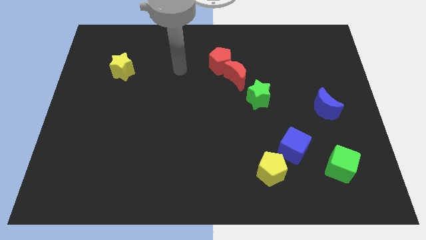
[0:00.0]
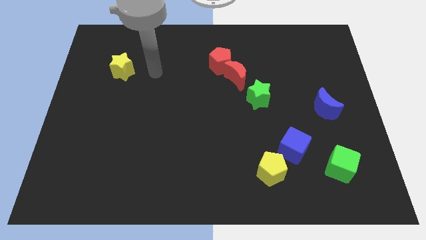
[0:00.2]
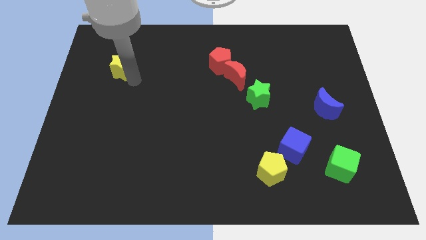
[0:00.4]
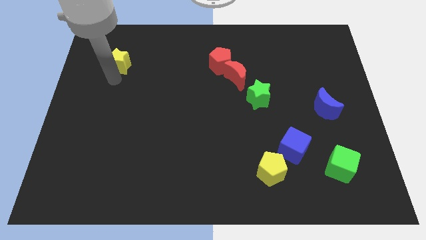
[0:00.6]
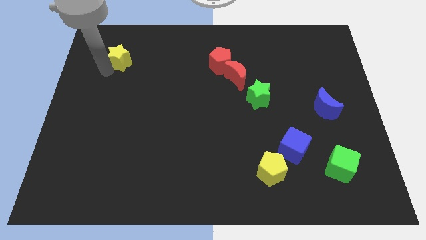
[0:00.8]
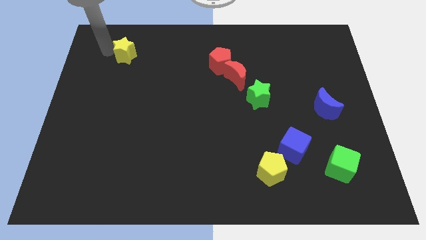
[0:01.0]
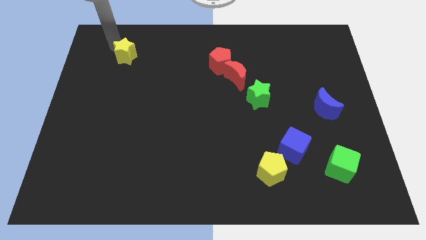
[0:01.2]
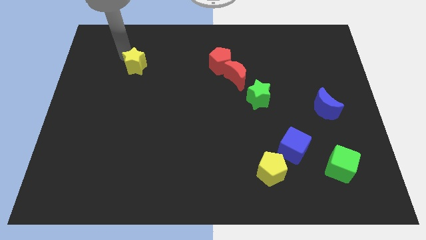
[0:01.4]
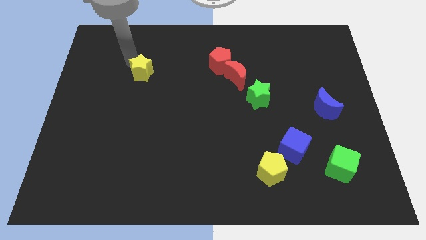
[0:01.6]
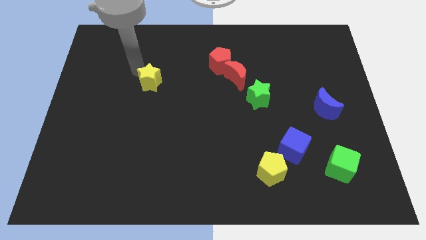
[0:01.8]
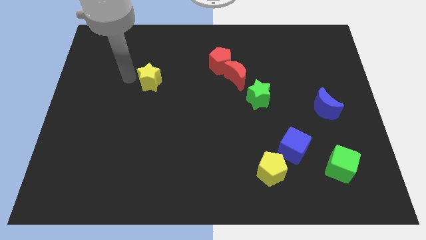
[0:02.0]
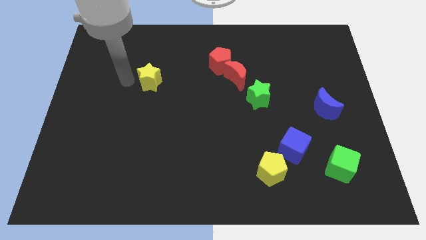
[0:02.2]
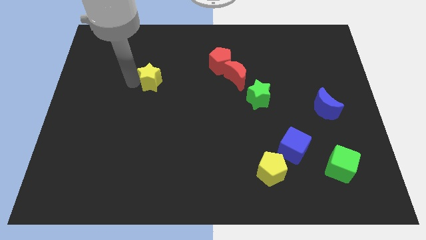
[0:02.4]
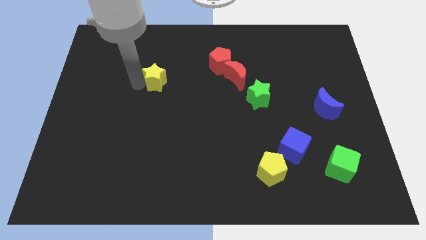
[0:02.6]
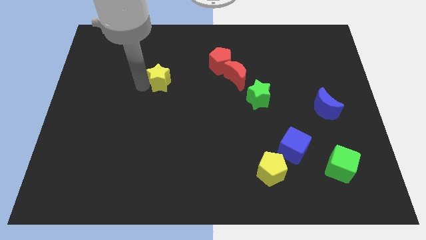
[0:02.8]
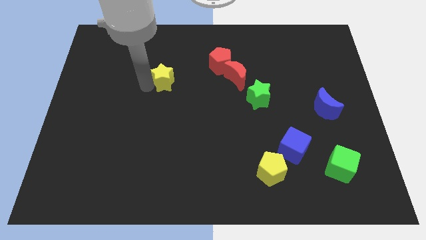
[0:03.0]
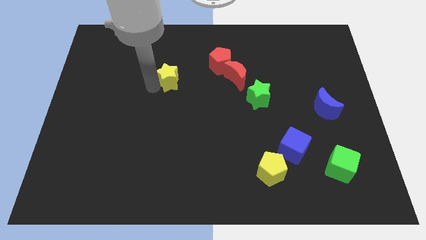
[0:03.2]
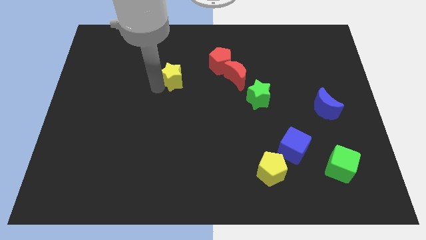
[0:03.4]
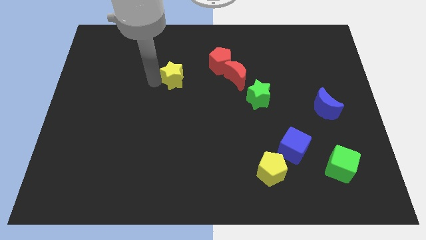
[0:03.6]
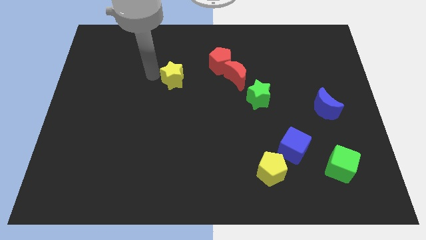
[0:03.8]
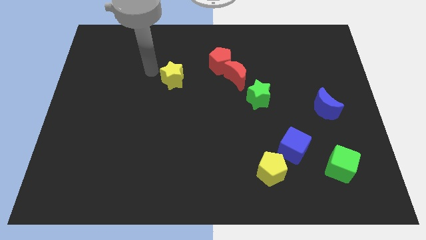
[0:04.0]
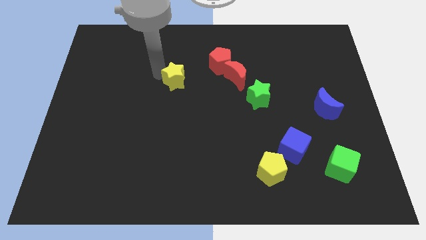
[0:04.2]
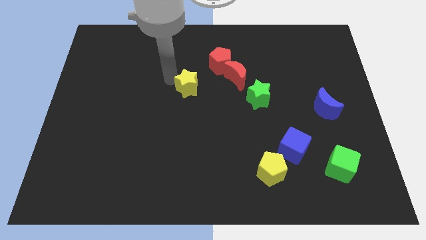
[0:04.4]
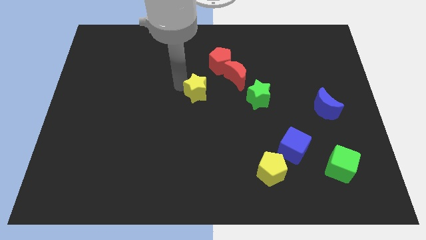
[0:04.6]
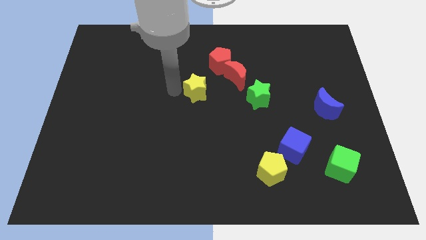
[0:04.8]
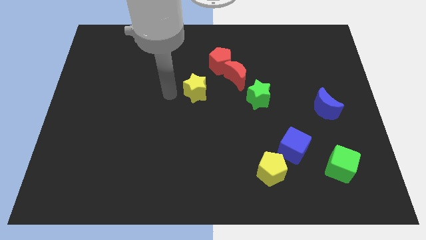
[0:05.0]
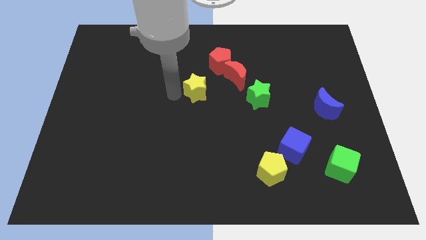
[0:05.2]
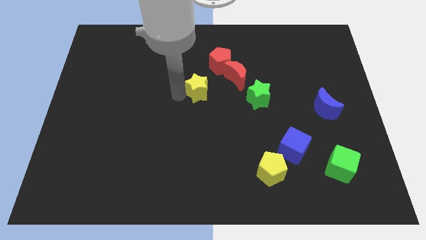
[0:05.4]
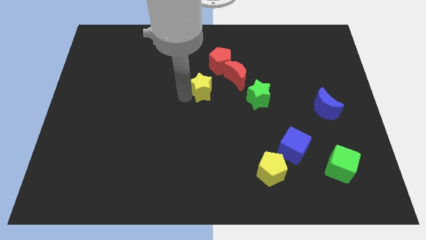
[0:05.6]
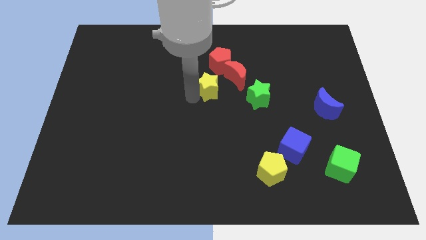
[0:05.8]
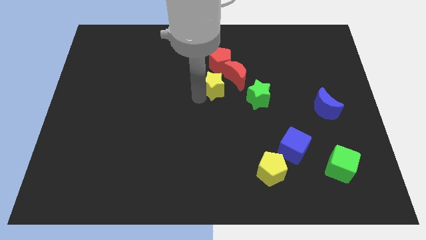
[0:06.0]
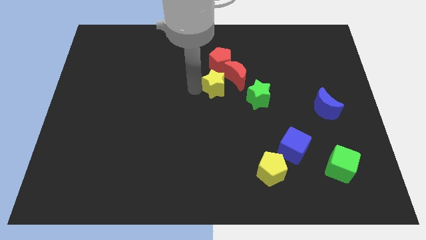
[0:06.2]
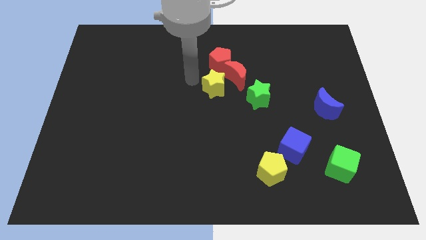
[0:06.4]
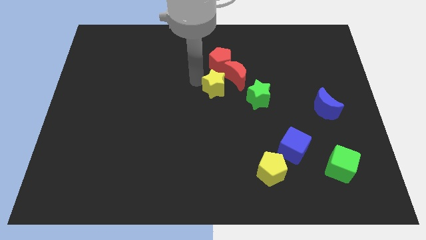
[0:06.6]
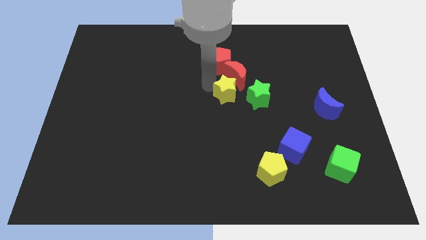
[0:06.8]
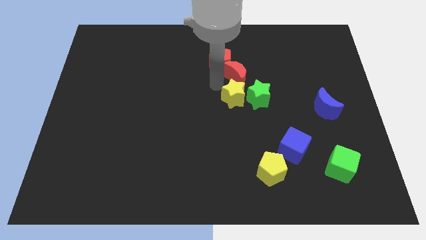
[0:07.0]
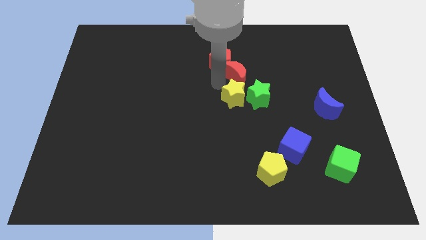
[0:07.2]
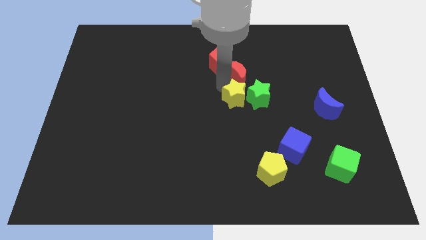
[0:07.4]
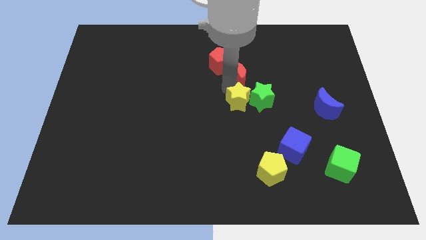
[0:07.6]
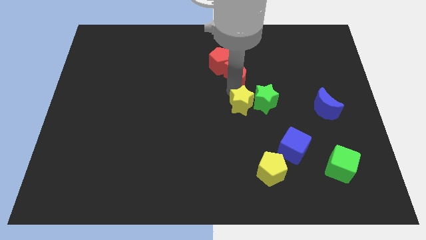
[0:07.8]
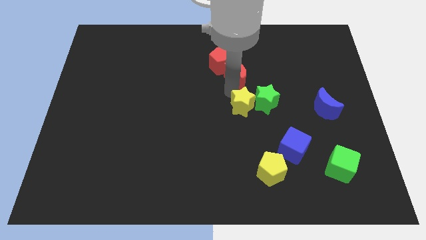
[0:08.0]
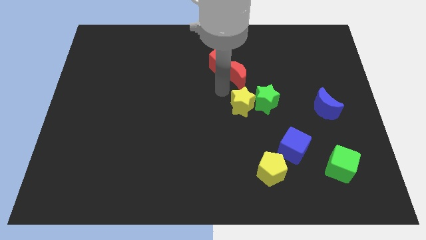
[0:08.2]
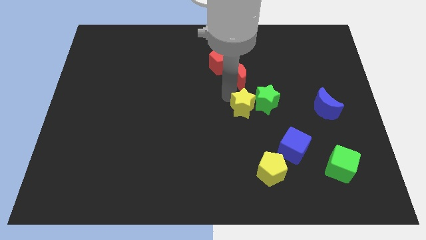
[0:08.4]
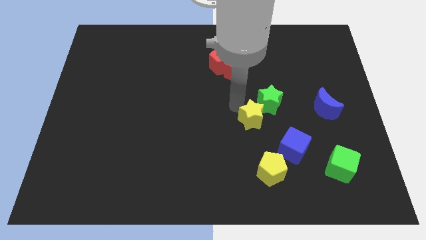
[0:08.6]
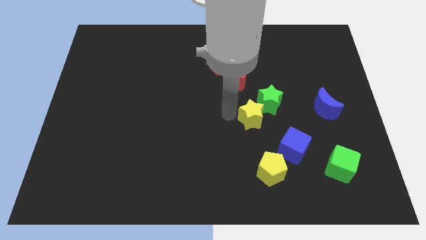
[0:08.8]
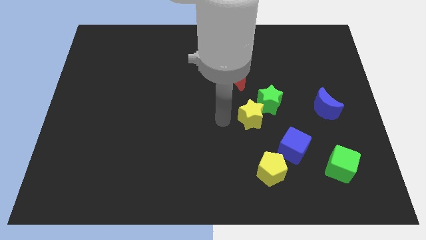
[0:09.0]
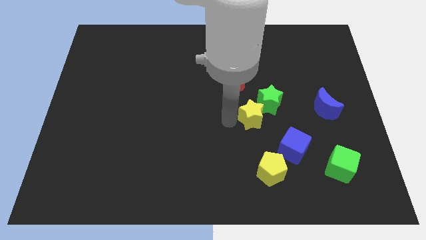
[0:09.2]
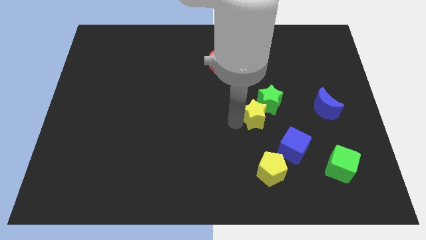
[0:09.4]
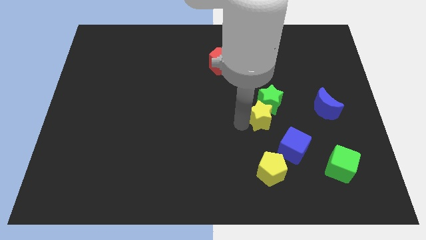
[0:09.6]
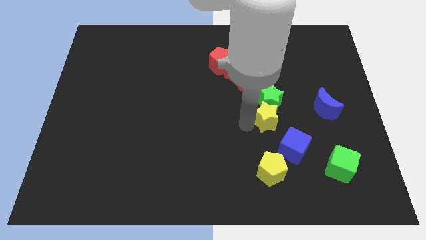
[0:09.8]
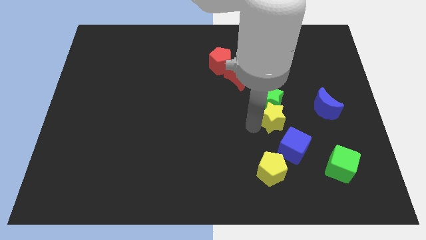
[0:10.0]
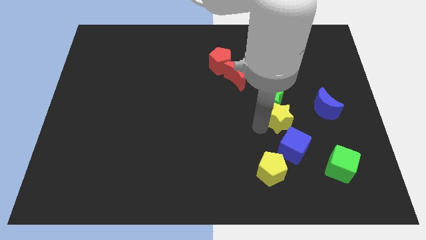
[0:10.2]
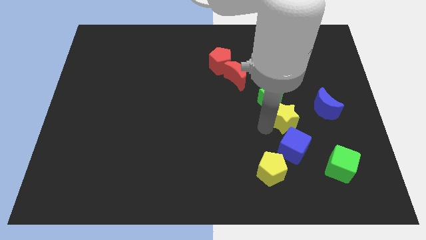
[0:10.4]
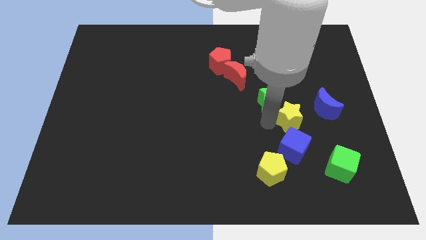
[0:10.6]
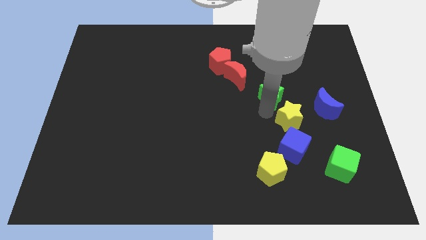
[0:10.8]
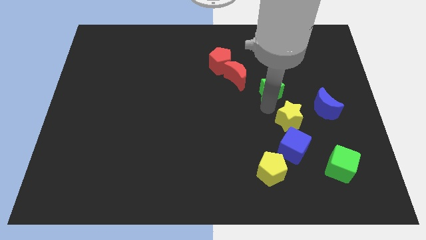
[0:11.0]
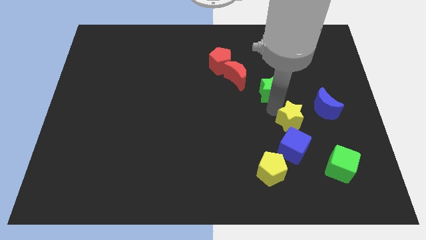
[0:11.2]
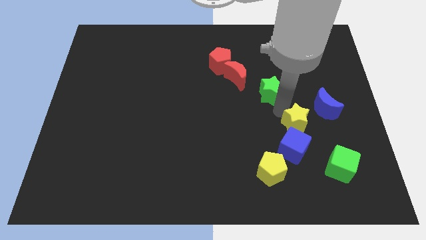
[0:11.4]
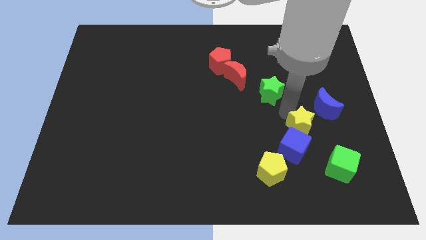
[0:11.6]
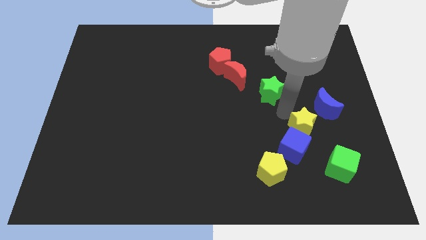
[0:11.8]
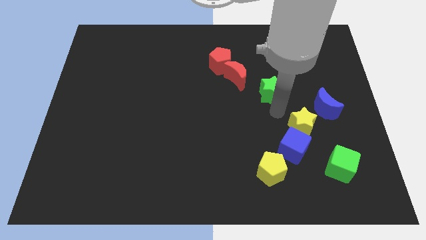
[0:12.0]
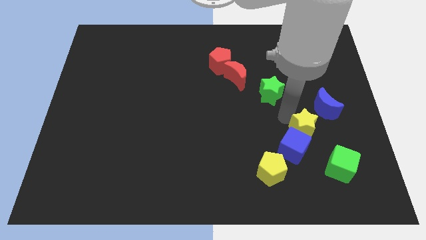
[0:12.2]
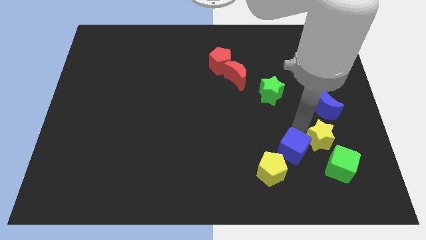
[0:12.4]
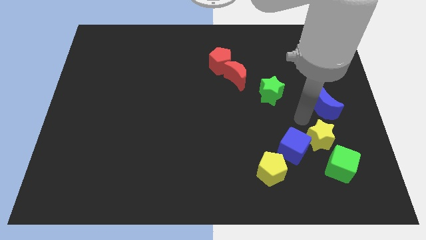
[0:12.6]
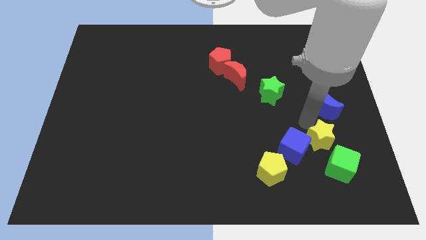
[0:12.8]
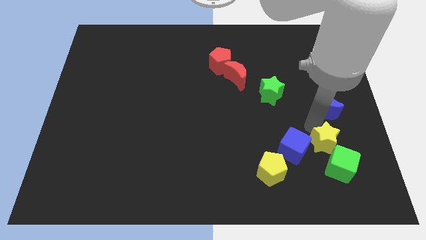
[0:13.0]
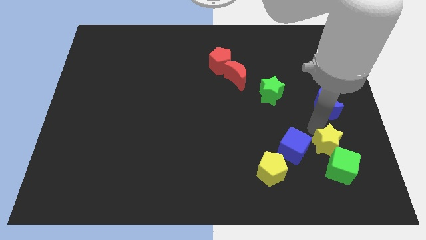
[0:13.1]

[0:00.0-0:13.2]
move the yellow star next to the green cube
